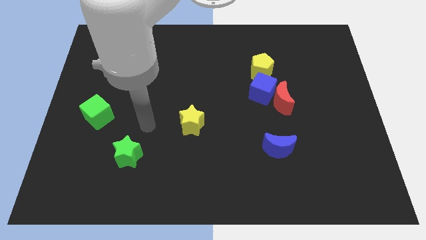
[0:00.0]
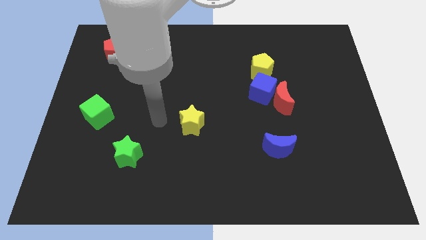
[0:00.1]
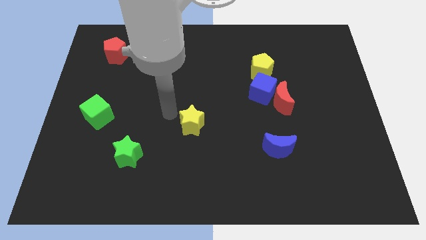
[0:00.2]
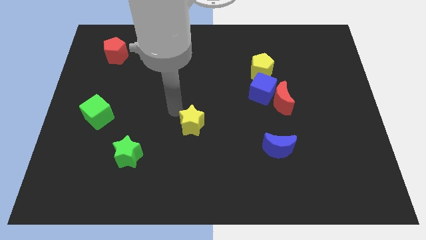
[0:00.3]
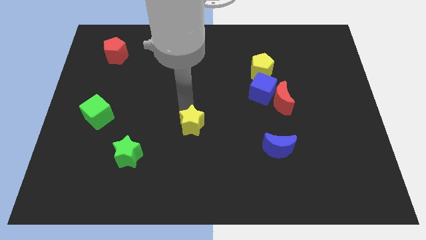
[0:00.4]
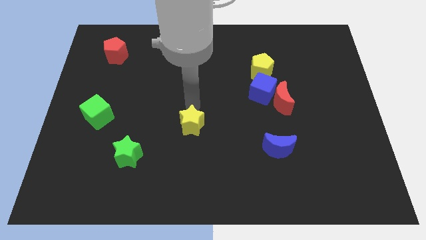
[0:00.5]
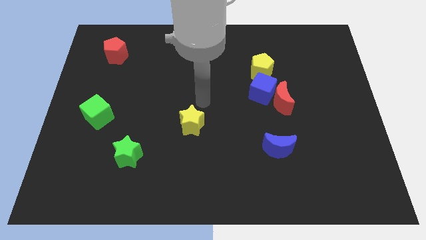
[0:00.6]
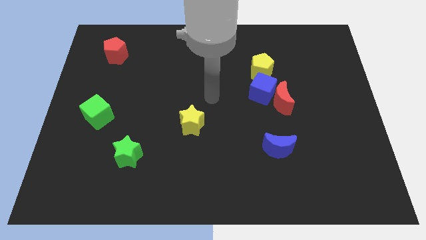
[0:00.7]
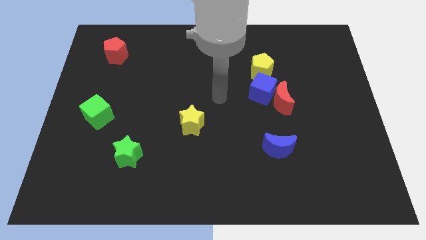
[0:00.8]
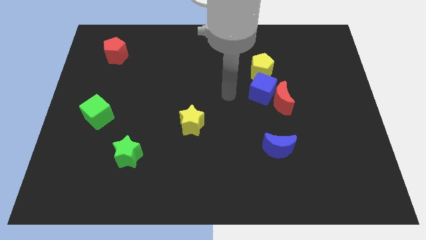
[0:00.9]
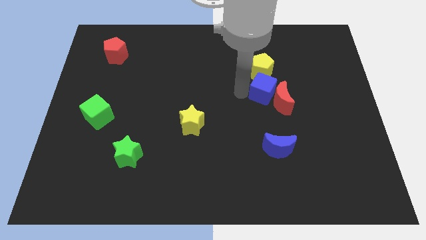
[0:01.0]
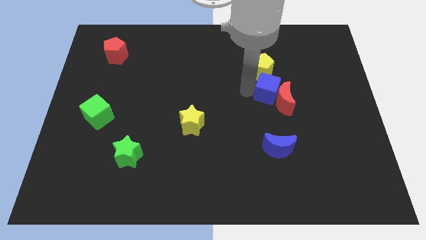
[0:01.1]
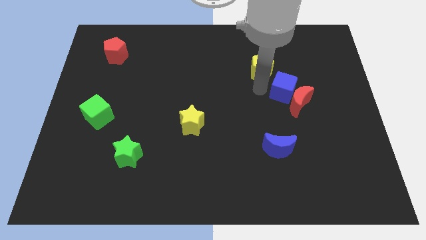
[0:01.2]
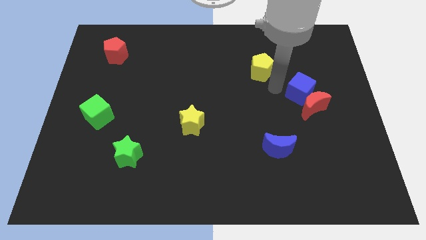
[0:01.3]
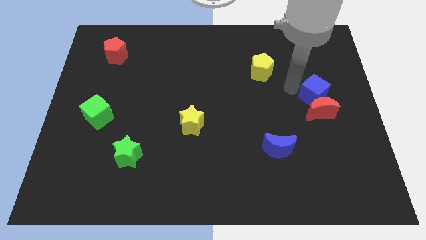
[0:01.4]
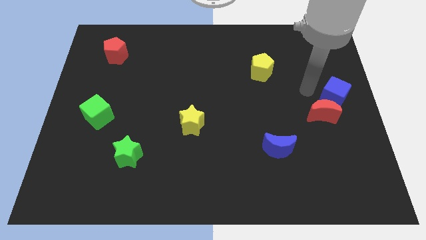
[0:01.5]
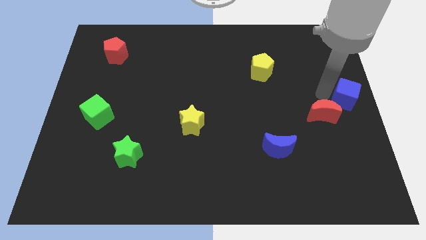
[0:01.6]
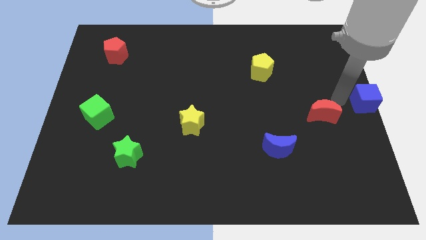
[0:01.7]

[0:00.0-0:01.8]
pull the red moon apart from the blue cube

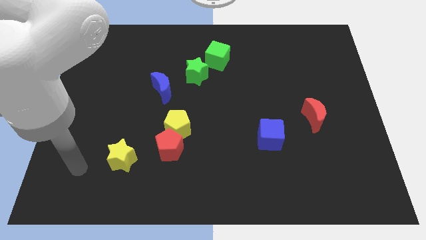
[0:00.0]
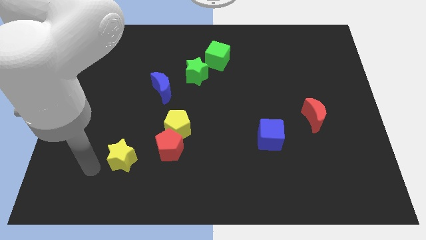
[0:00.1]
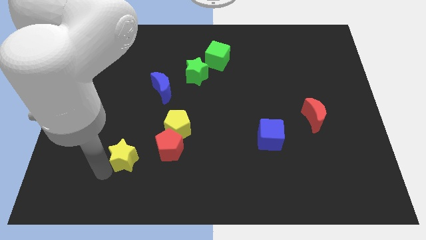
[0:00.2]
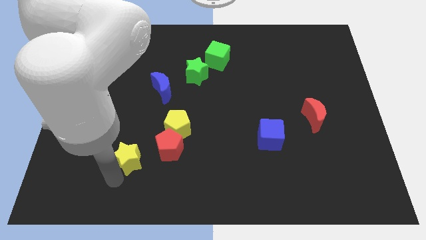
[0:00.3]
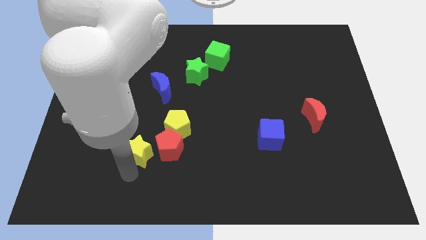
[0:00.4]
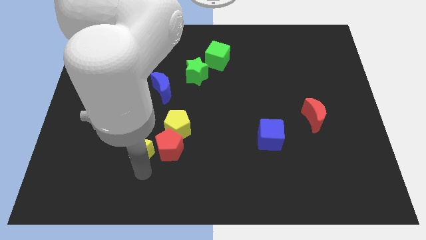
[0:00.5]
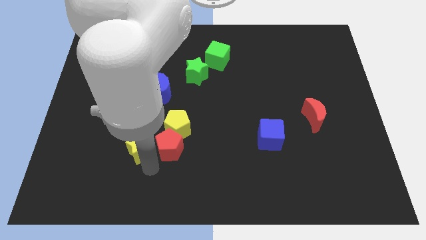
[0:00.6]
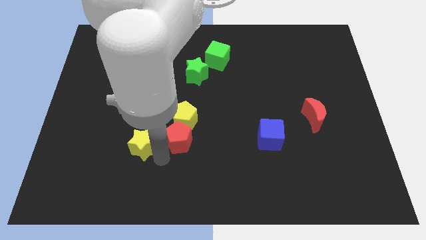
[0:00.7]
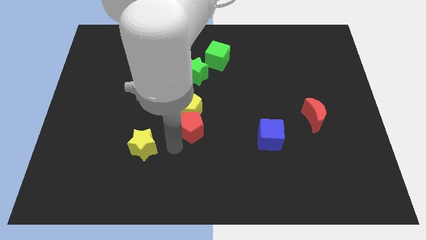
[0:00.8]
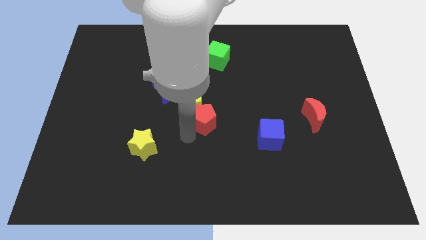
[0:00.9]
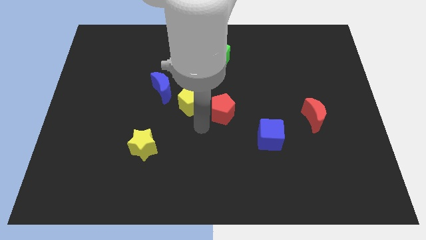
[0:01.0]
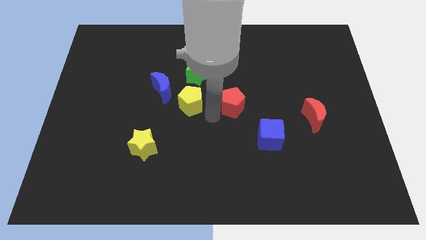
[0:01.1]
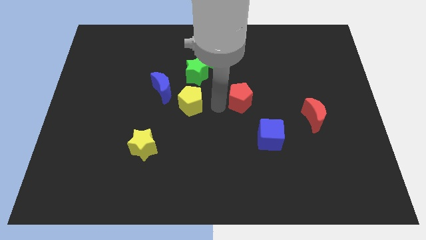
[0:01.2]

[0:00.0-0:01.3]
pull the yellow pentagon apart from the red pentagon

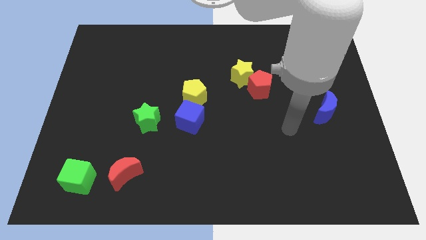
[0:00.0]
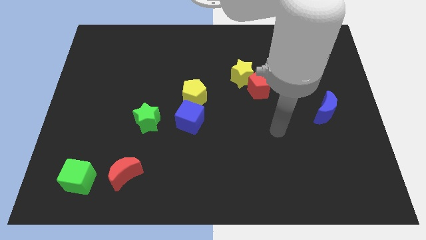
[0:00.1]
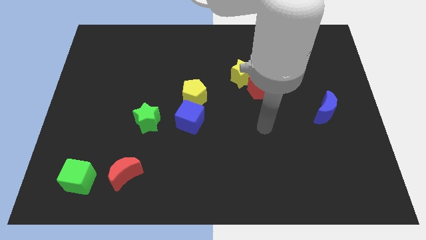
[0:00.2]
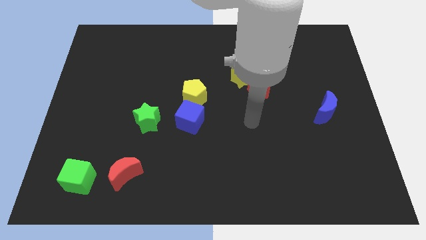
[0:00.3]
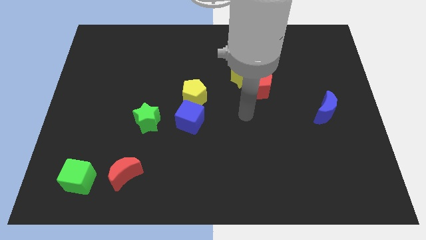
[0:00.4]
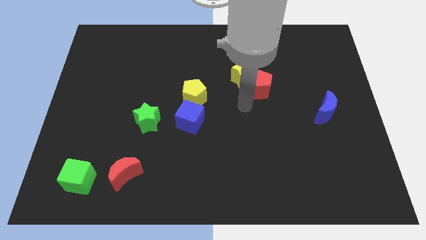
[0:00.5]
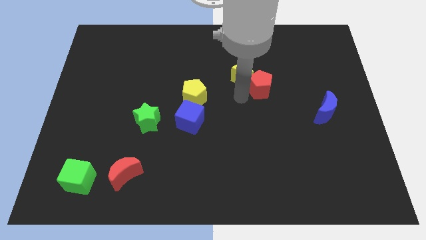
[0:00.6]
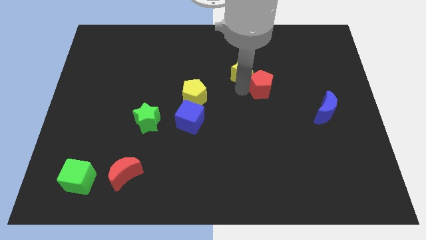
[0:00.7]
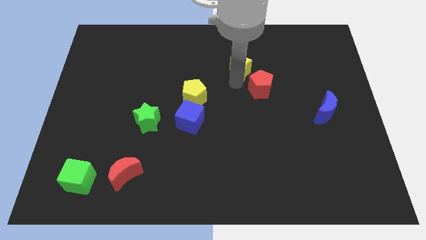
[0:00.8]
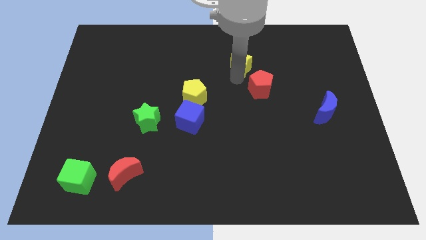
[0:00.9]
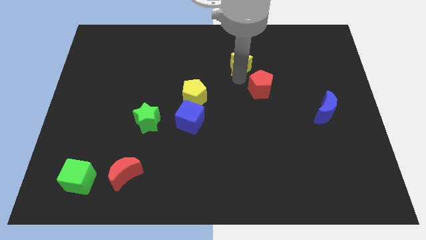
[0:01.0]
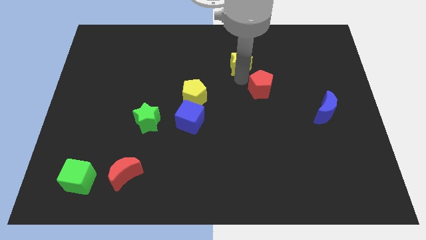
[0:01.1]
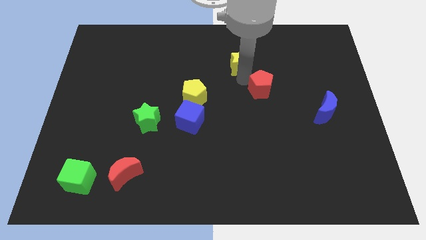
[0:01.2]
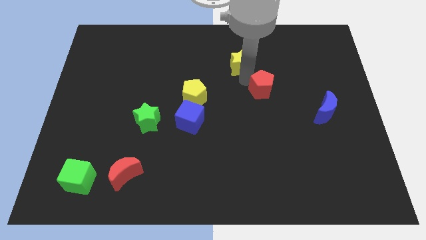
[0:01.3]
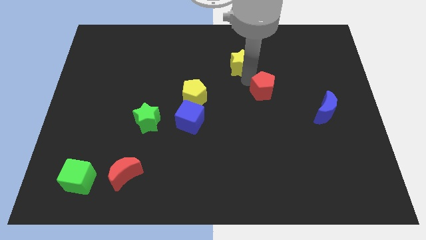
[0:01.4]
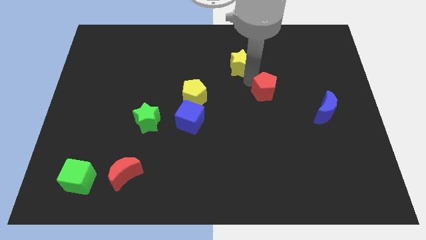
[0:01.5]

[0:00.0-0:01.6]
pull the red pentagon apart from the yellow star

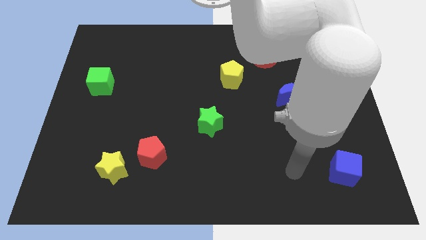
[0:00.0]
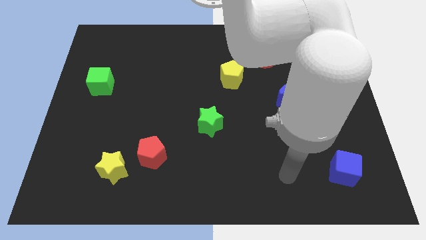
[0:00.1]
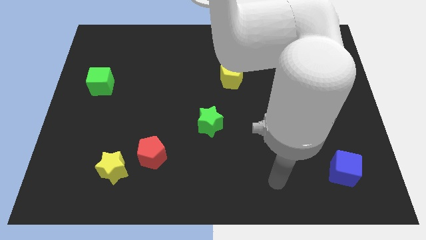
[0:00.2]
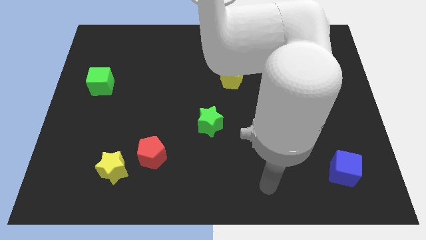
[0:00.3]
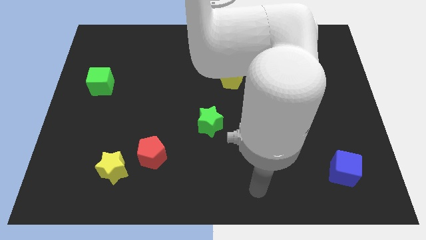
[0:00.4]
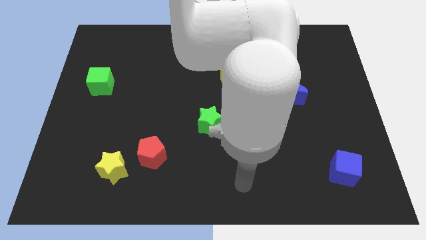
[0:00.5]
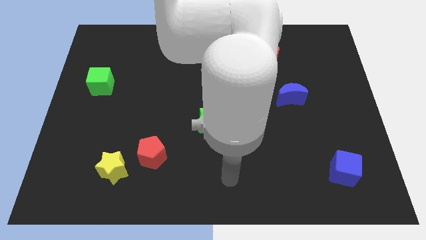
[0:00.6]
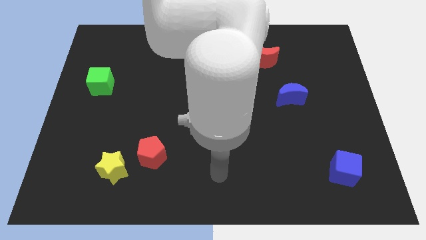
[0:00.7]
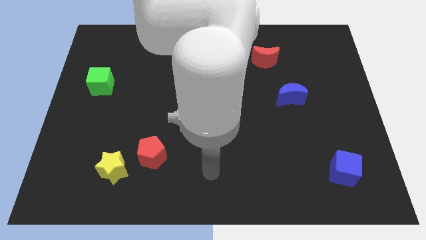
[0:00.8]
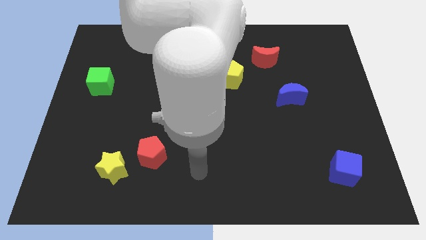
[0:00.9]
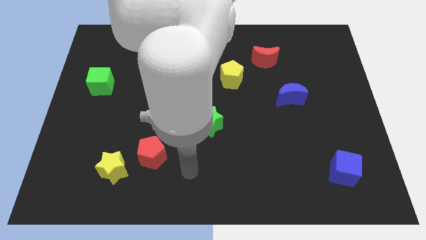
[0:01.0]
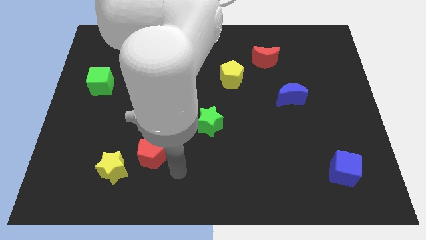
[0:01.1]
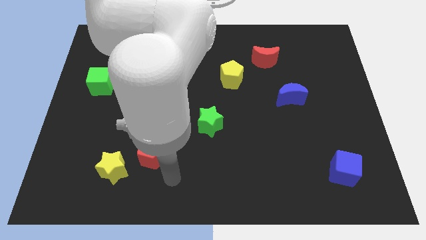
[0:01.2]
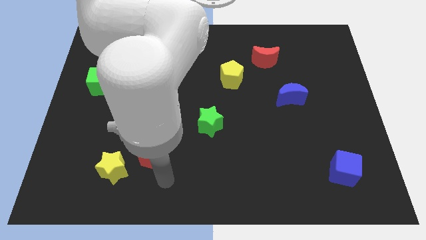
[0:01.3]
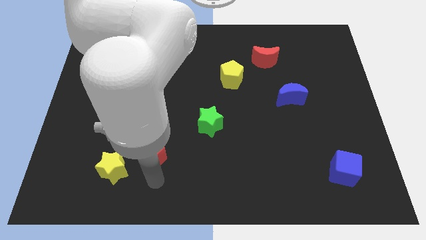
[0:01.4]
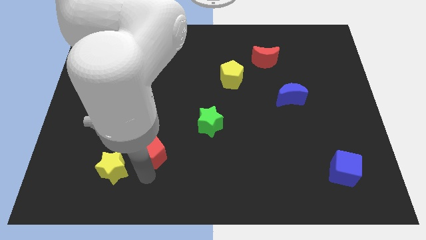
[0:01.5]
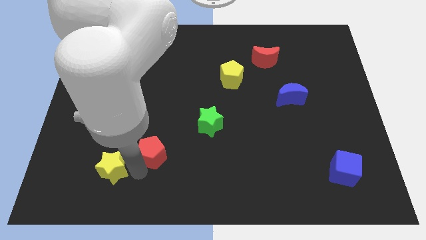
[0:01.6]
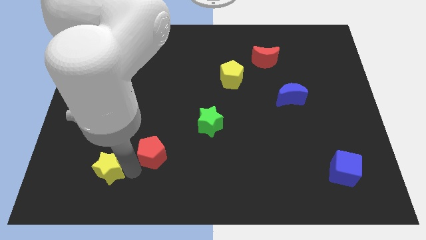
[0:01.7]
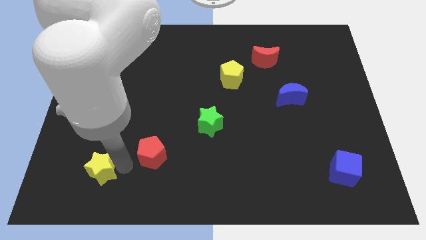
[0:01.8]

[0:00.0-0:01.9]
move the red pentagon away from the yellow star

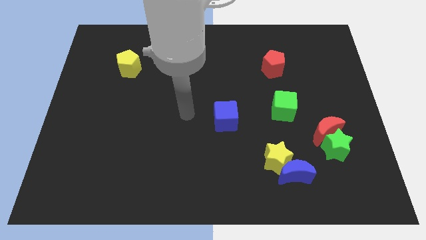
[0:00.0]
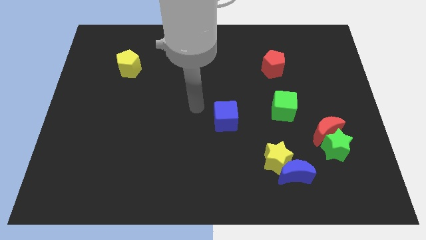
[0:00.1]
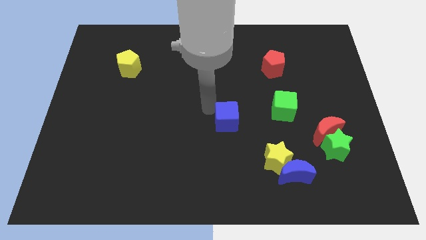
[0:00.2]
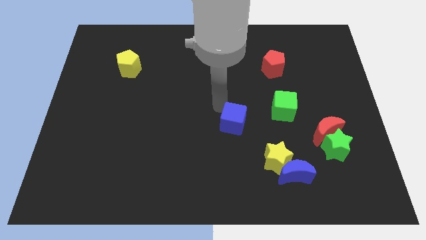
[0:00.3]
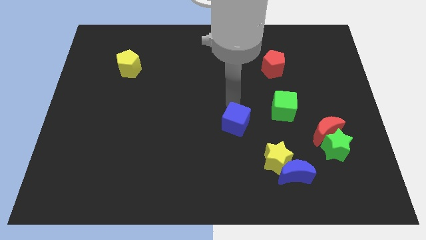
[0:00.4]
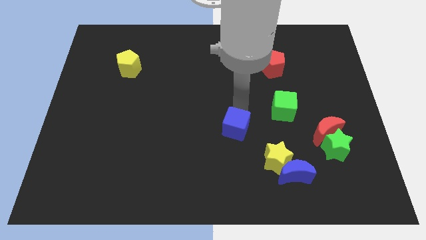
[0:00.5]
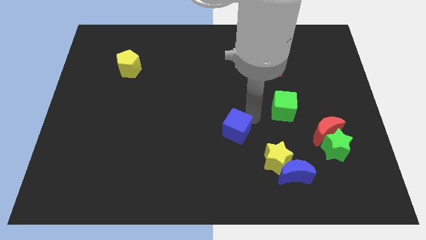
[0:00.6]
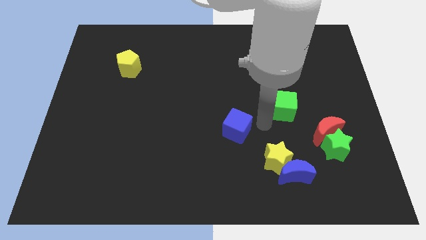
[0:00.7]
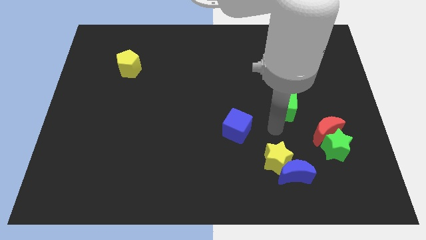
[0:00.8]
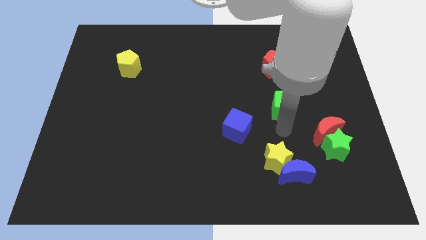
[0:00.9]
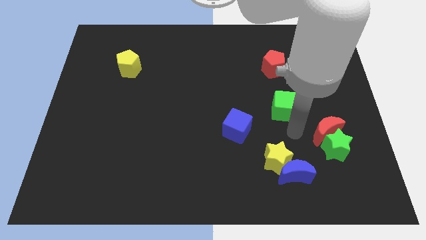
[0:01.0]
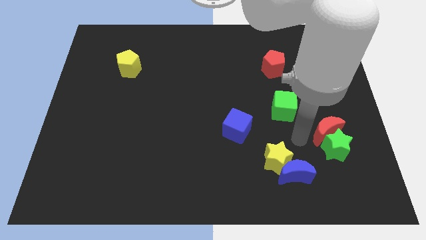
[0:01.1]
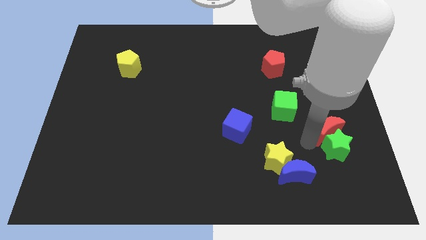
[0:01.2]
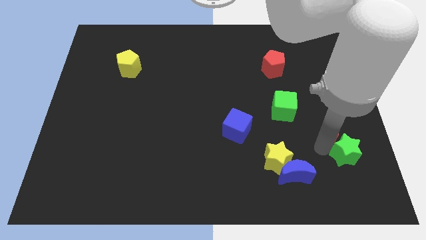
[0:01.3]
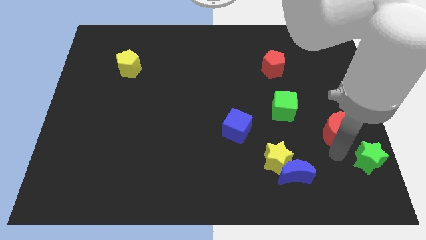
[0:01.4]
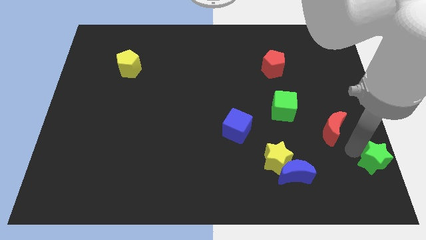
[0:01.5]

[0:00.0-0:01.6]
pull the red moon apart from the green star

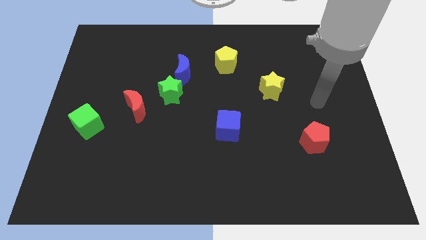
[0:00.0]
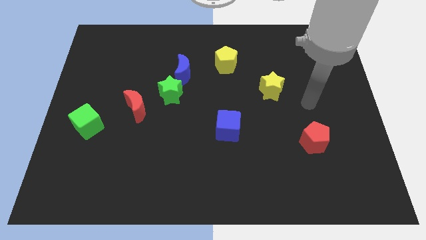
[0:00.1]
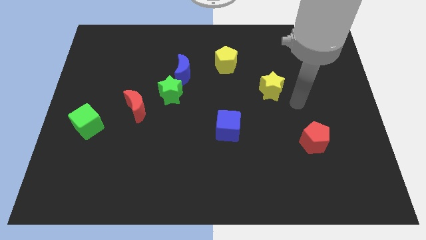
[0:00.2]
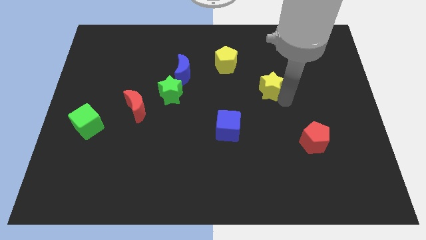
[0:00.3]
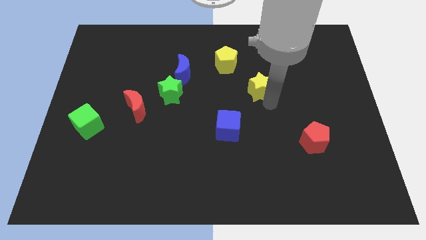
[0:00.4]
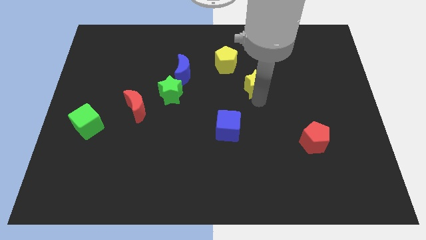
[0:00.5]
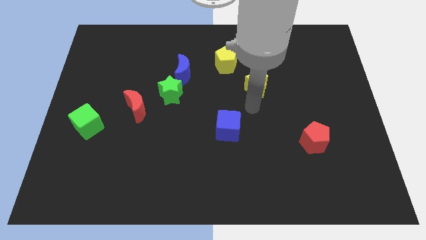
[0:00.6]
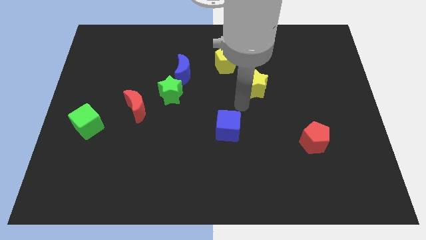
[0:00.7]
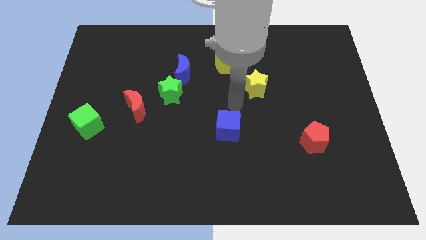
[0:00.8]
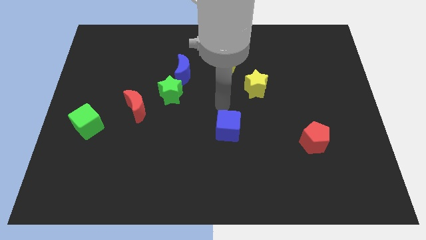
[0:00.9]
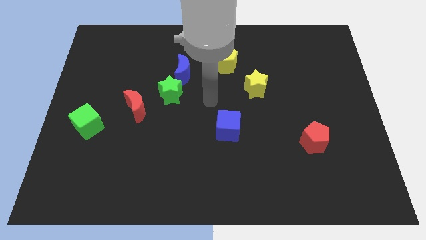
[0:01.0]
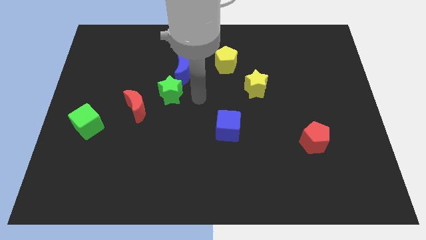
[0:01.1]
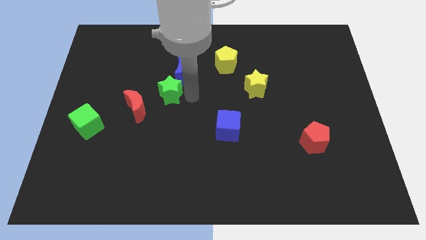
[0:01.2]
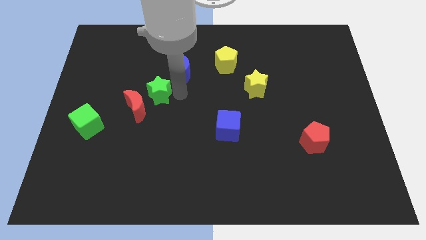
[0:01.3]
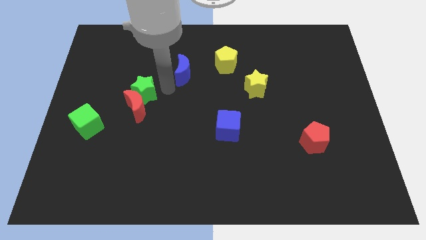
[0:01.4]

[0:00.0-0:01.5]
pull the blue moon apart from the green star
